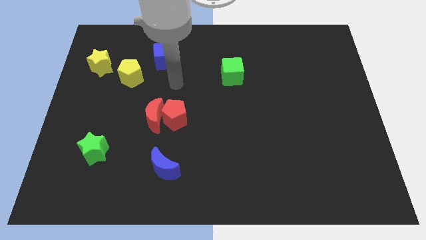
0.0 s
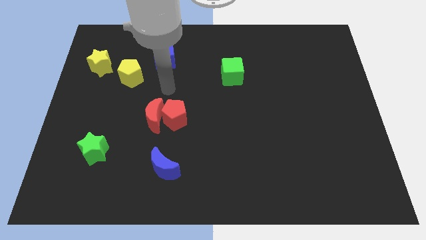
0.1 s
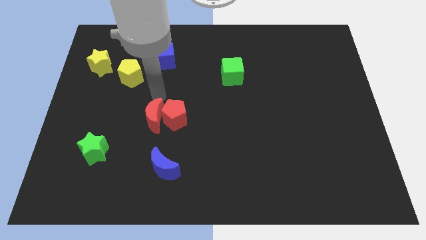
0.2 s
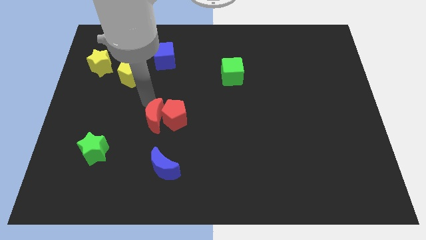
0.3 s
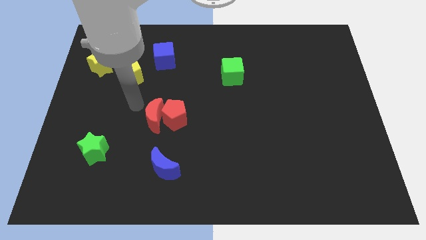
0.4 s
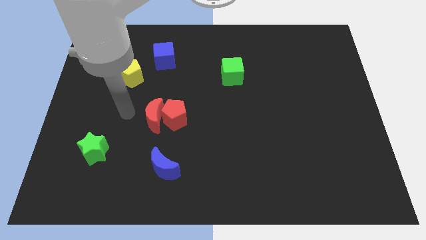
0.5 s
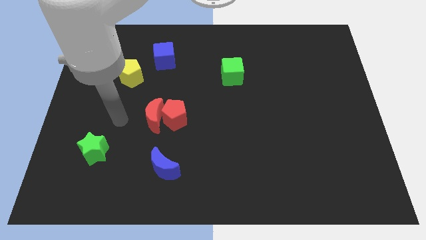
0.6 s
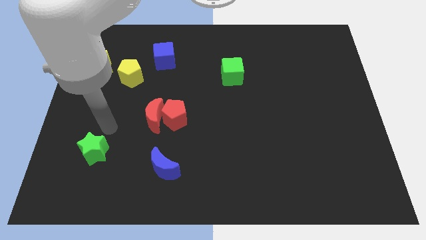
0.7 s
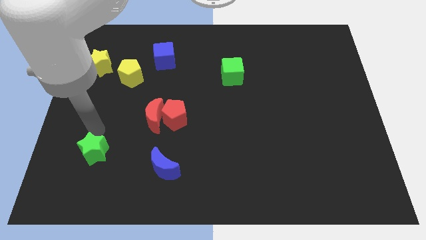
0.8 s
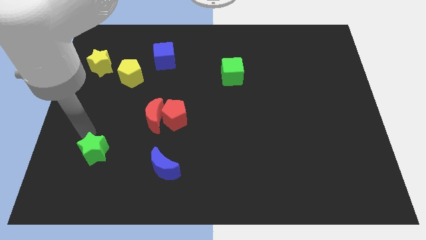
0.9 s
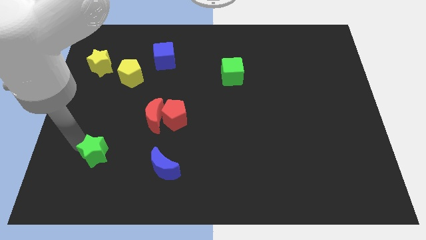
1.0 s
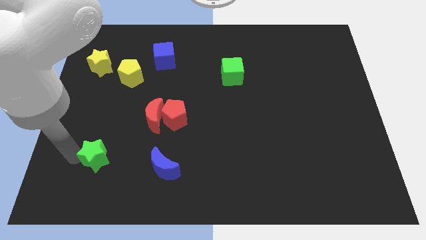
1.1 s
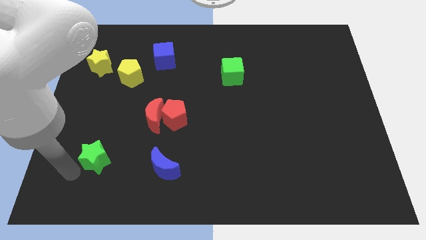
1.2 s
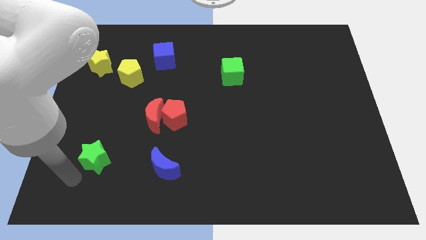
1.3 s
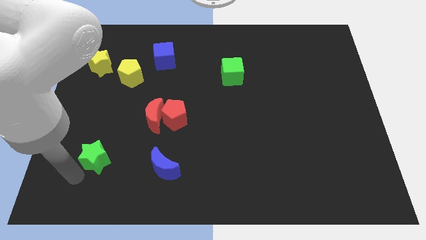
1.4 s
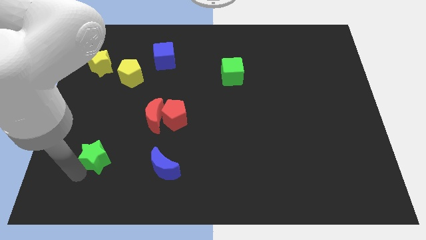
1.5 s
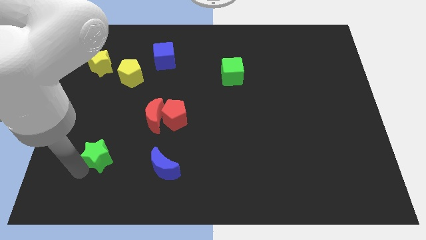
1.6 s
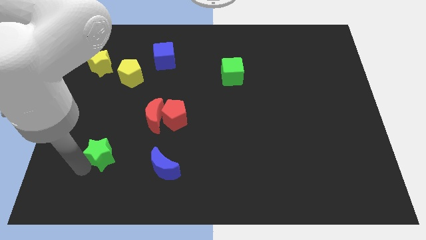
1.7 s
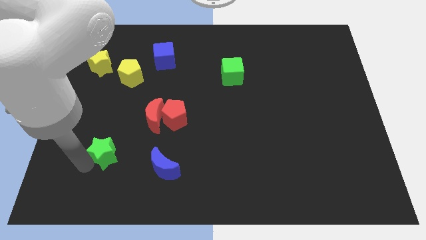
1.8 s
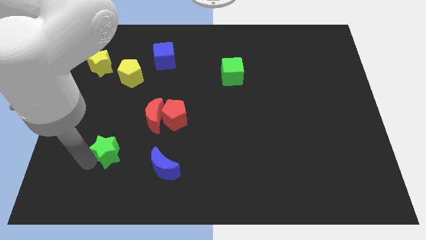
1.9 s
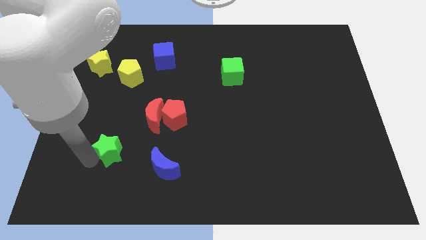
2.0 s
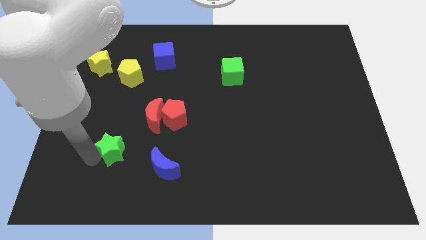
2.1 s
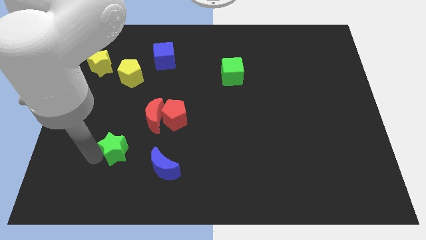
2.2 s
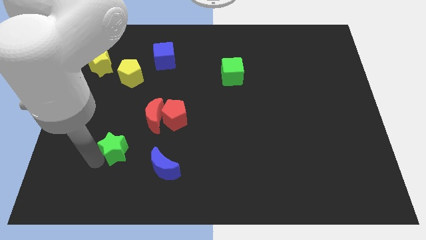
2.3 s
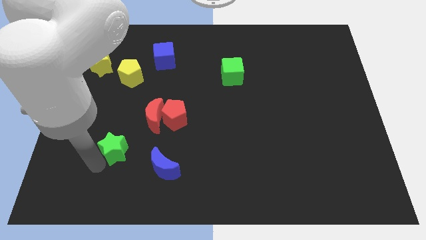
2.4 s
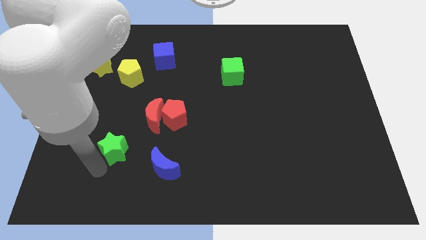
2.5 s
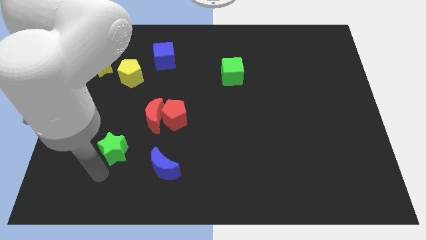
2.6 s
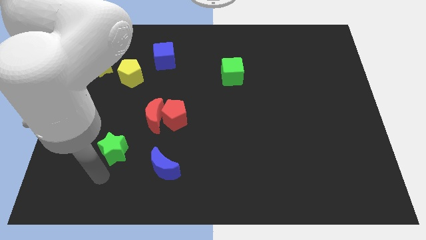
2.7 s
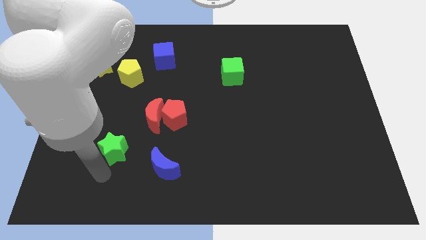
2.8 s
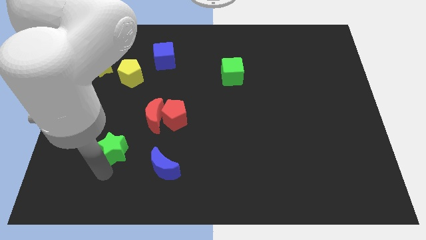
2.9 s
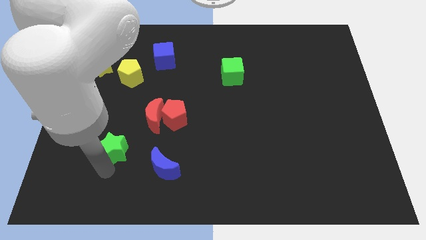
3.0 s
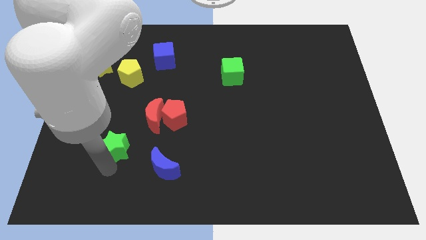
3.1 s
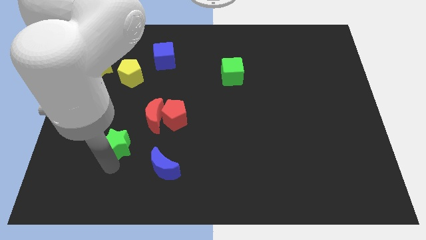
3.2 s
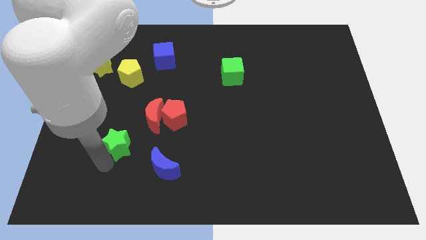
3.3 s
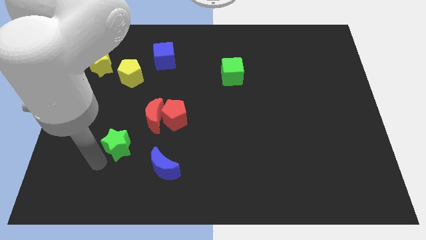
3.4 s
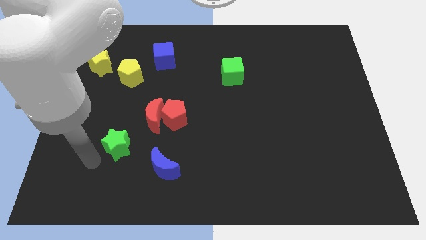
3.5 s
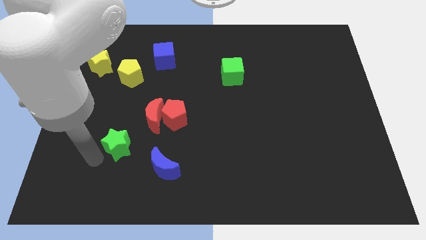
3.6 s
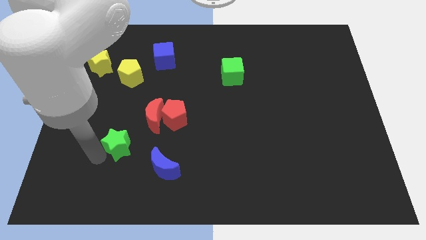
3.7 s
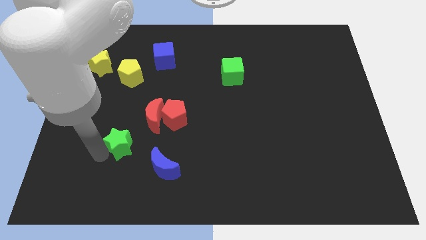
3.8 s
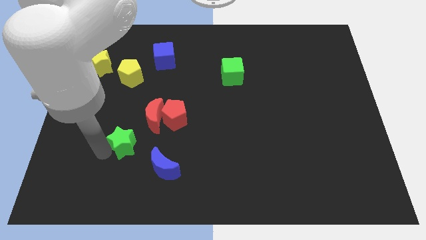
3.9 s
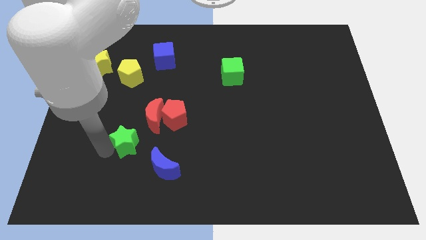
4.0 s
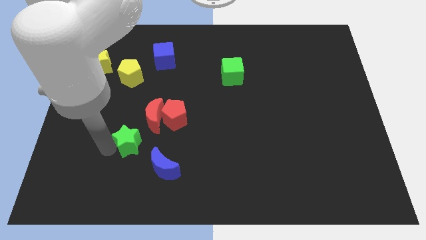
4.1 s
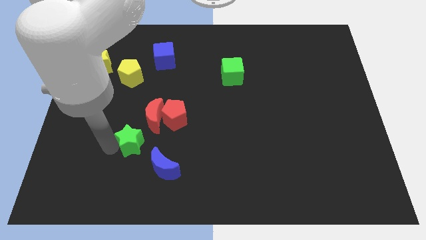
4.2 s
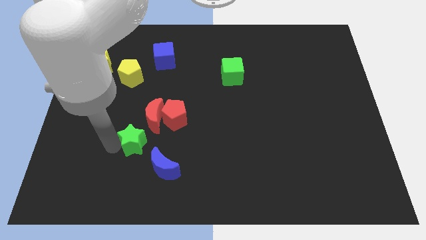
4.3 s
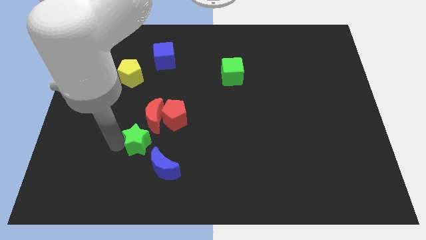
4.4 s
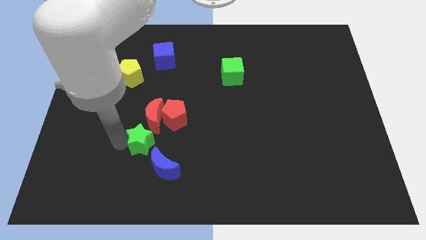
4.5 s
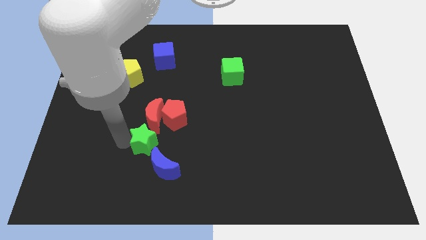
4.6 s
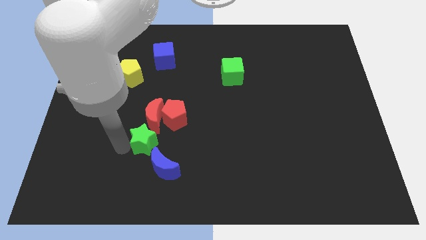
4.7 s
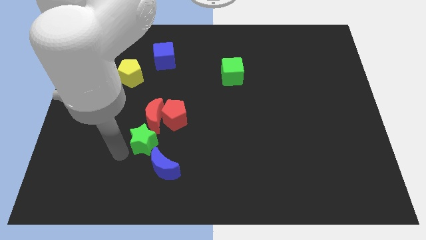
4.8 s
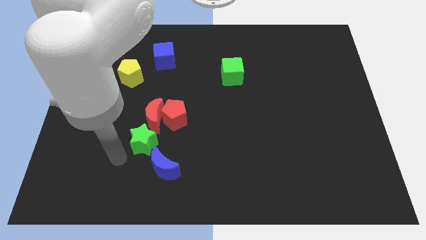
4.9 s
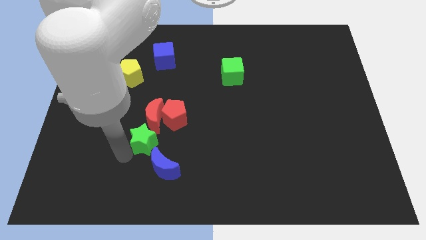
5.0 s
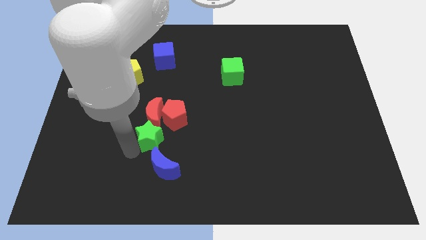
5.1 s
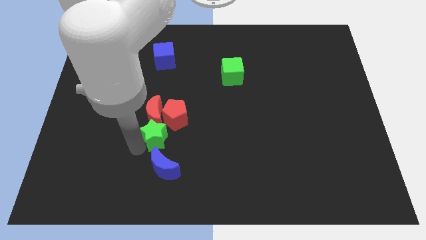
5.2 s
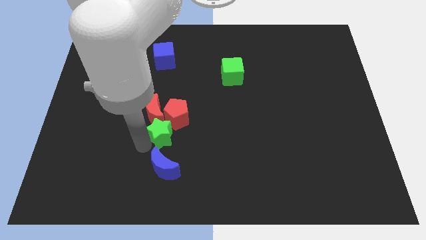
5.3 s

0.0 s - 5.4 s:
push the green star to the red pentagon
